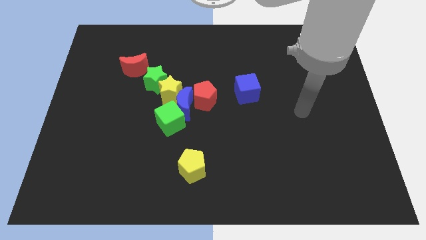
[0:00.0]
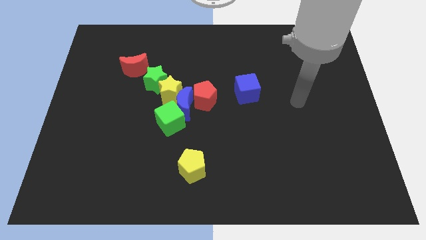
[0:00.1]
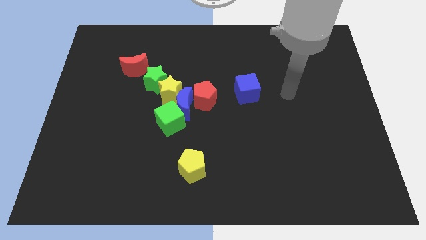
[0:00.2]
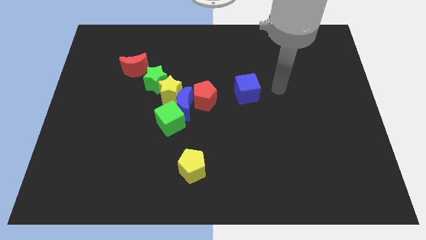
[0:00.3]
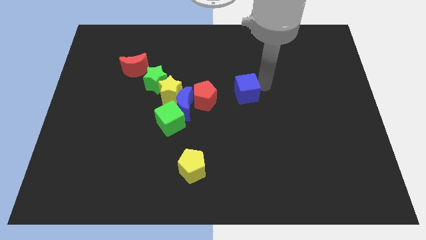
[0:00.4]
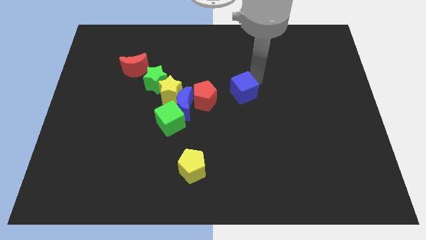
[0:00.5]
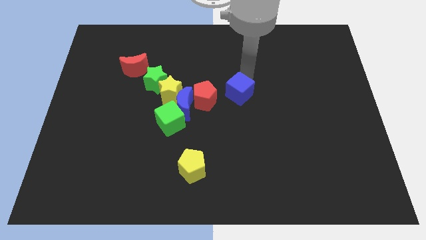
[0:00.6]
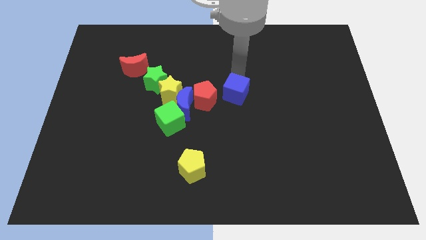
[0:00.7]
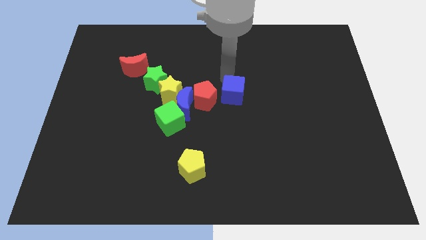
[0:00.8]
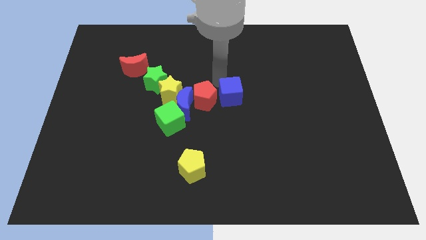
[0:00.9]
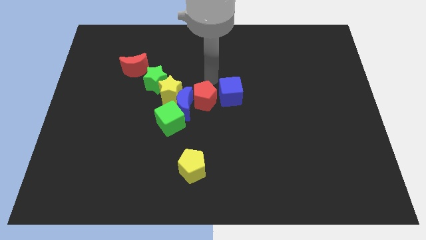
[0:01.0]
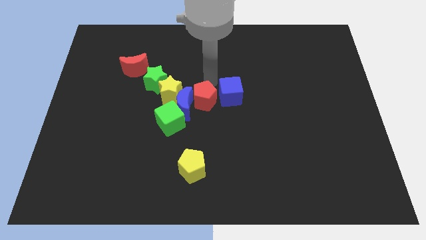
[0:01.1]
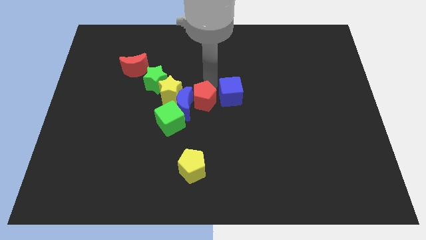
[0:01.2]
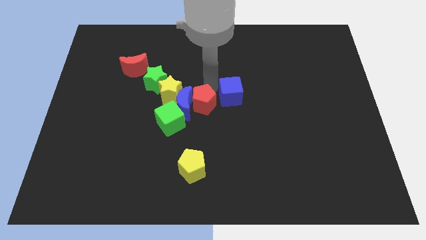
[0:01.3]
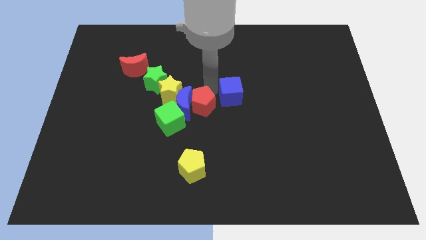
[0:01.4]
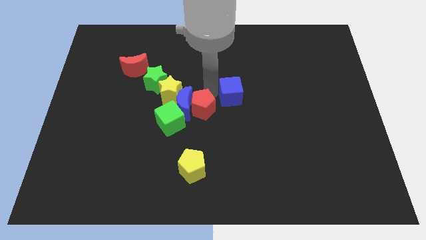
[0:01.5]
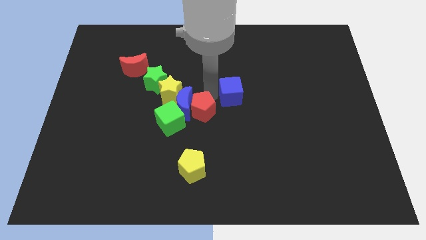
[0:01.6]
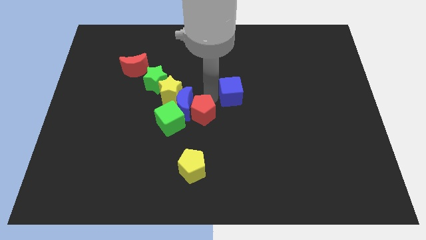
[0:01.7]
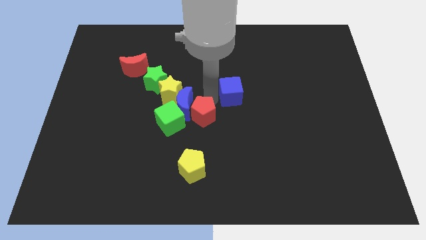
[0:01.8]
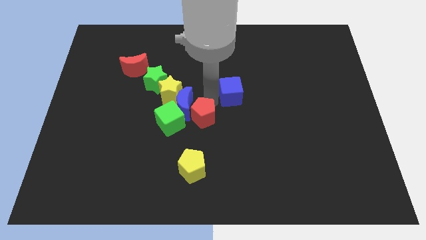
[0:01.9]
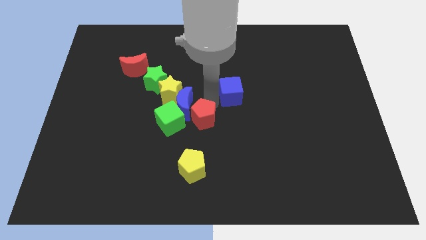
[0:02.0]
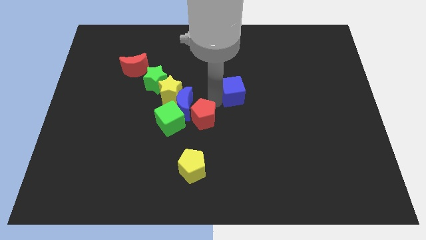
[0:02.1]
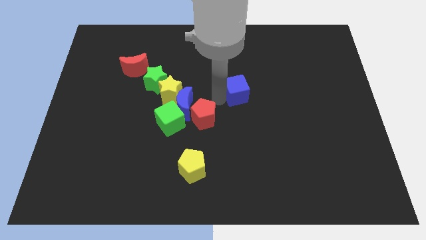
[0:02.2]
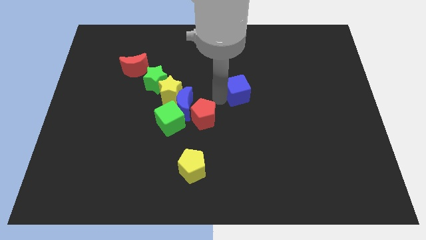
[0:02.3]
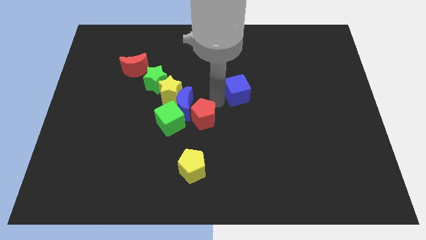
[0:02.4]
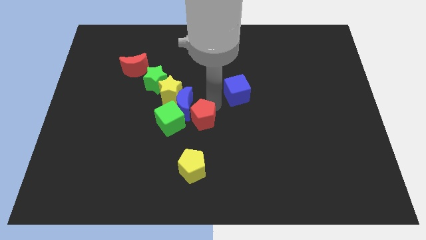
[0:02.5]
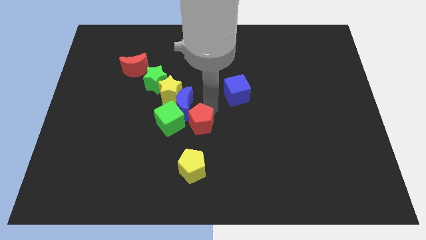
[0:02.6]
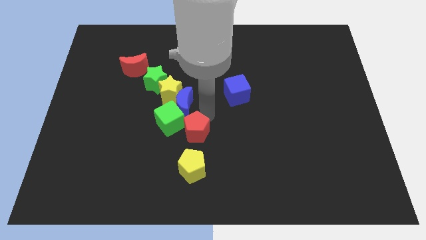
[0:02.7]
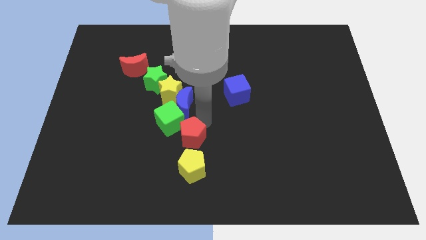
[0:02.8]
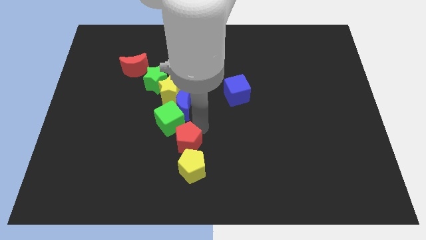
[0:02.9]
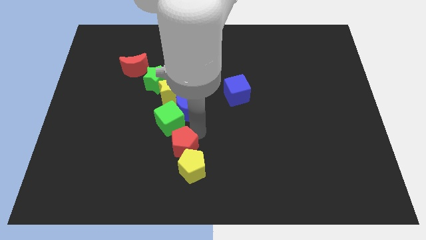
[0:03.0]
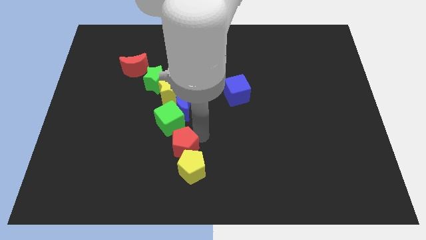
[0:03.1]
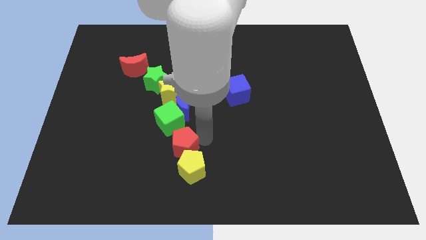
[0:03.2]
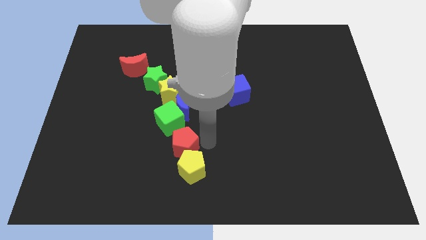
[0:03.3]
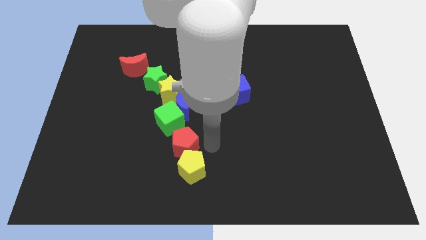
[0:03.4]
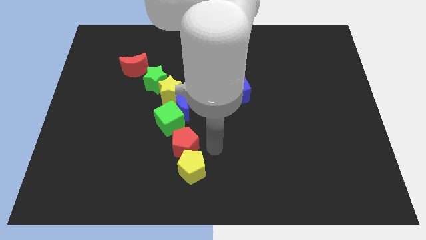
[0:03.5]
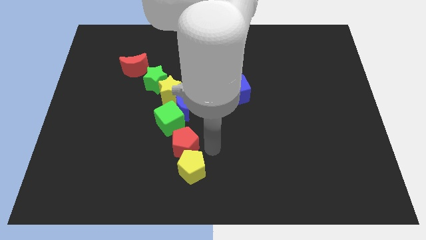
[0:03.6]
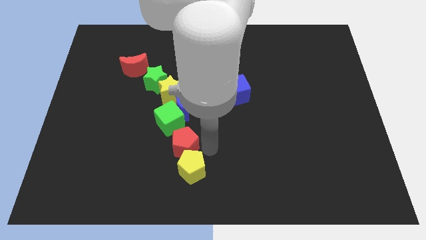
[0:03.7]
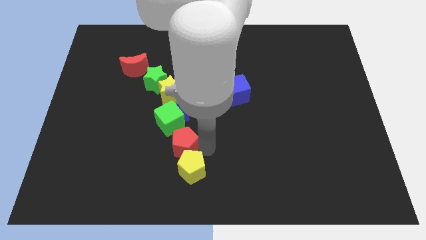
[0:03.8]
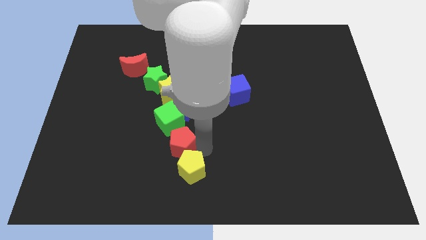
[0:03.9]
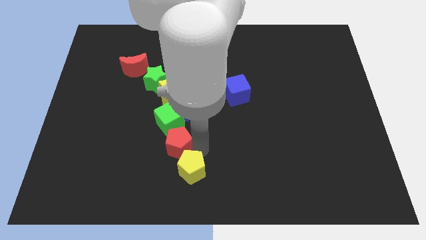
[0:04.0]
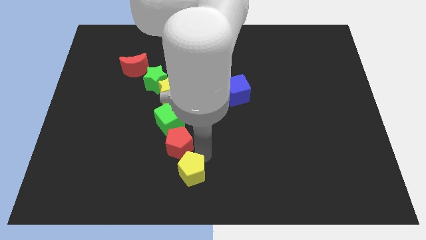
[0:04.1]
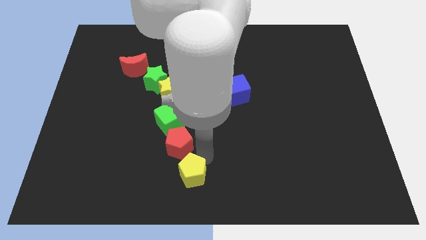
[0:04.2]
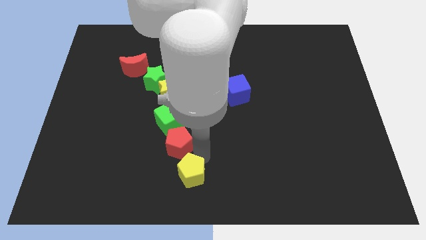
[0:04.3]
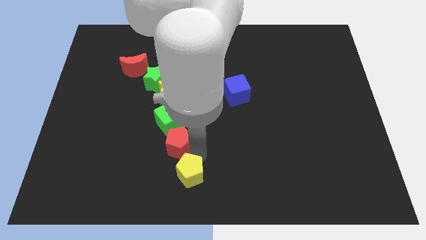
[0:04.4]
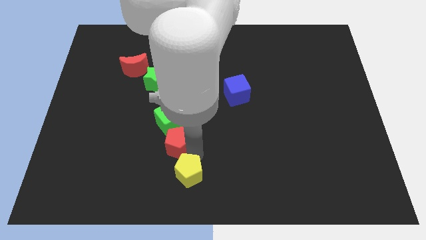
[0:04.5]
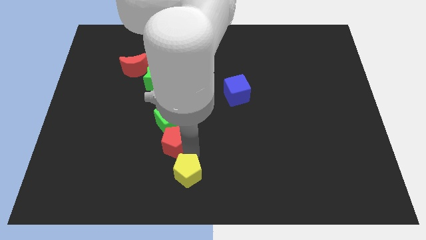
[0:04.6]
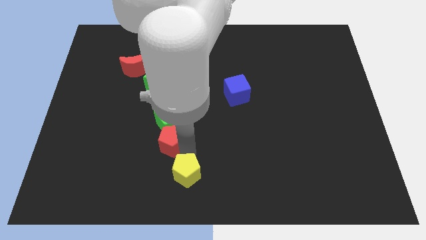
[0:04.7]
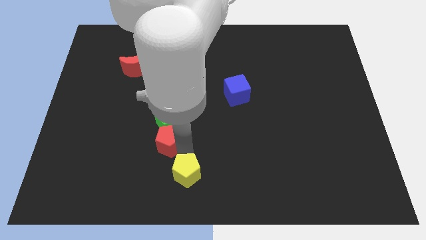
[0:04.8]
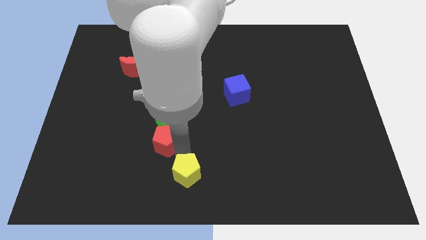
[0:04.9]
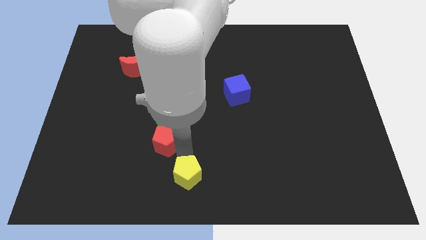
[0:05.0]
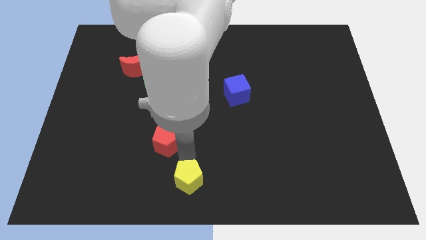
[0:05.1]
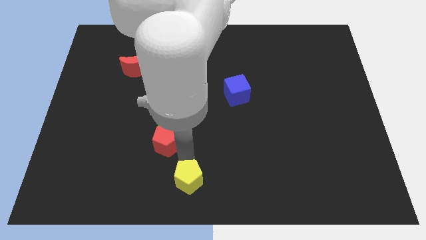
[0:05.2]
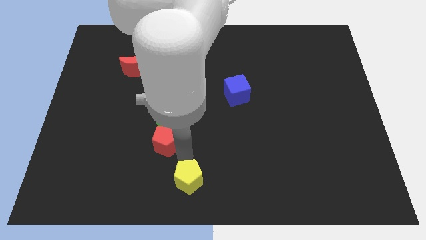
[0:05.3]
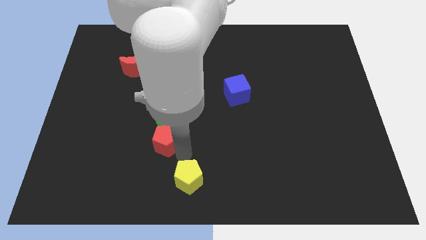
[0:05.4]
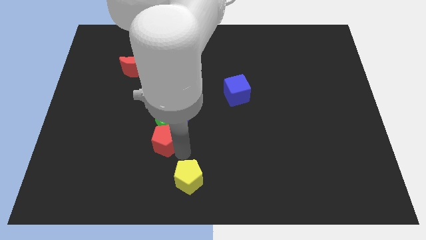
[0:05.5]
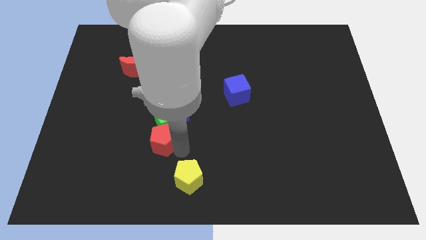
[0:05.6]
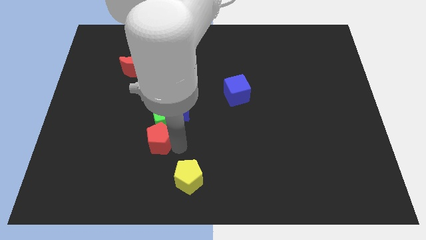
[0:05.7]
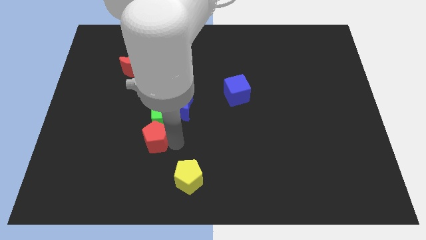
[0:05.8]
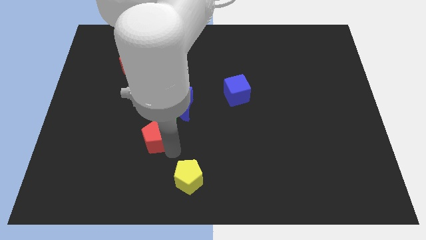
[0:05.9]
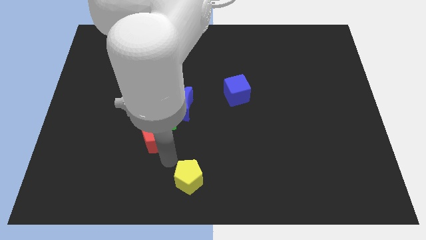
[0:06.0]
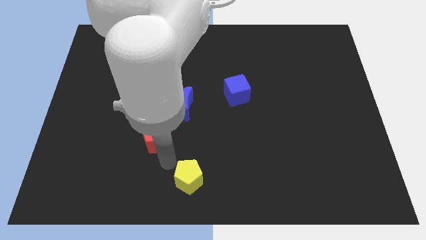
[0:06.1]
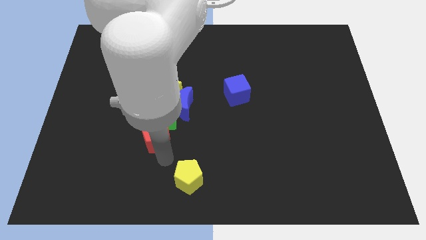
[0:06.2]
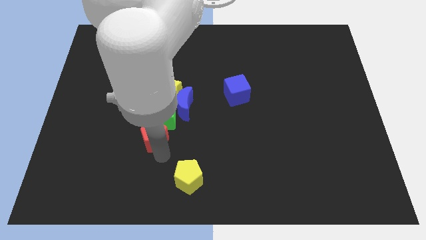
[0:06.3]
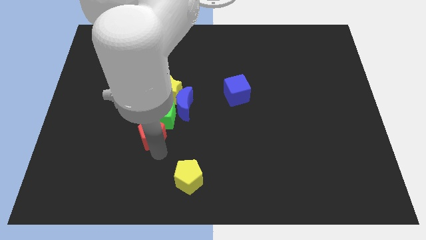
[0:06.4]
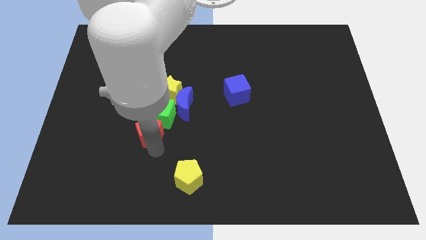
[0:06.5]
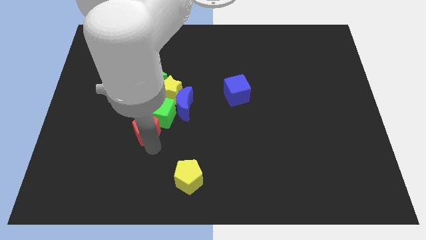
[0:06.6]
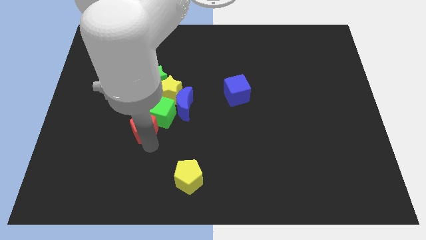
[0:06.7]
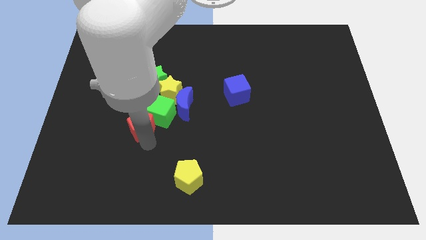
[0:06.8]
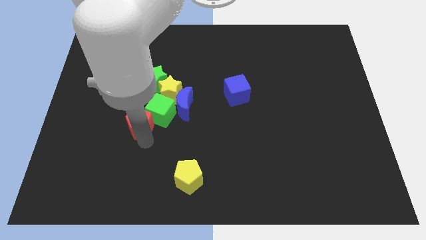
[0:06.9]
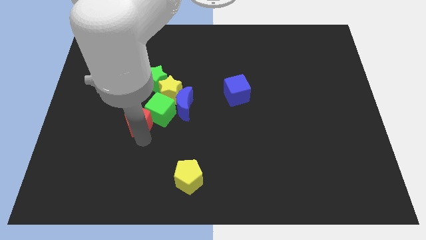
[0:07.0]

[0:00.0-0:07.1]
put the red pentagon to the left side of the blue moon

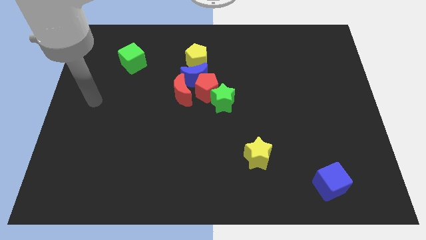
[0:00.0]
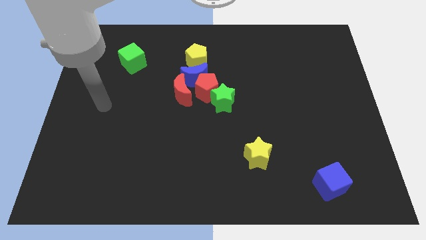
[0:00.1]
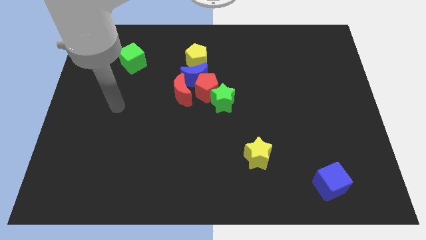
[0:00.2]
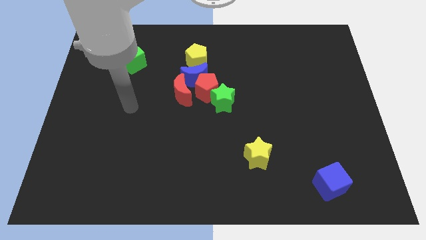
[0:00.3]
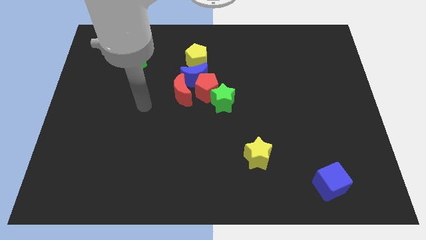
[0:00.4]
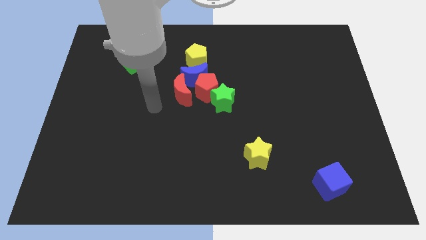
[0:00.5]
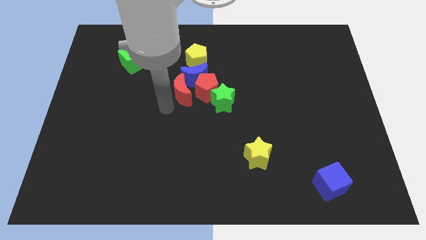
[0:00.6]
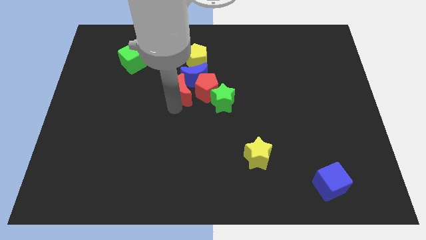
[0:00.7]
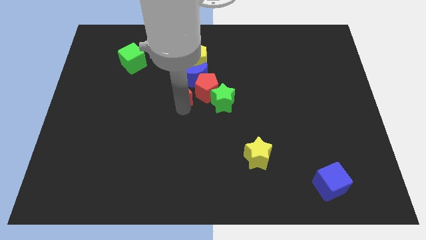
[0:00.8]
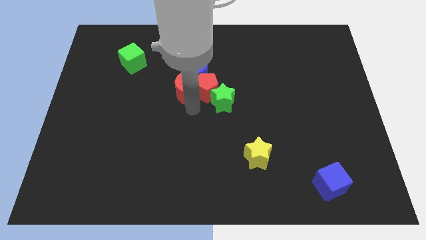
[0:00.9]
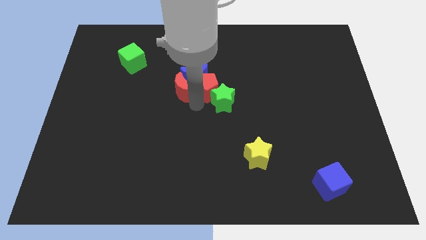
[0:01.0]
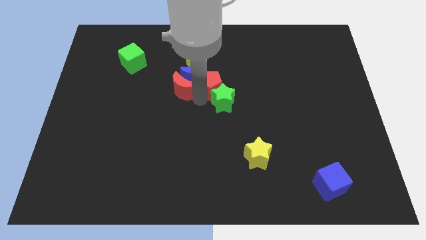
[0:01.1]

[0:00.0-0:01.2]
move the red pentagon to the bottom right of the yellow pentagon
